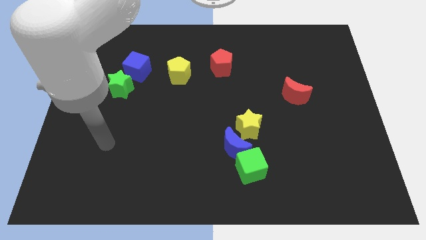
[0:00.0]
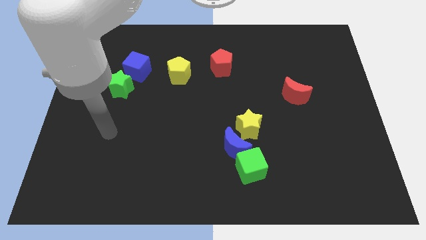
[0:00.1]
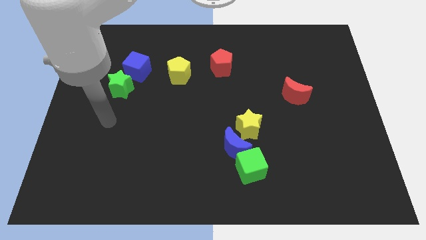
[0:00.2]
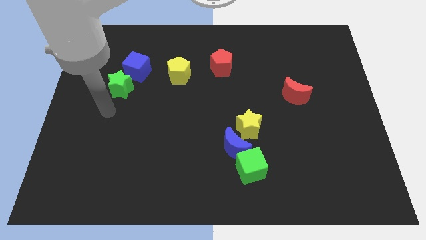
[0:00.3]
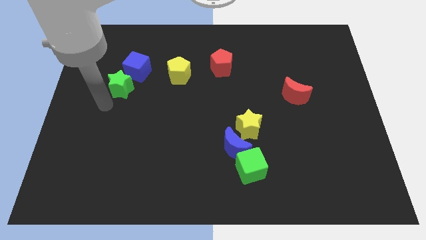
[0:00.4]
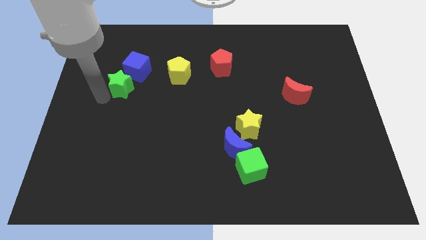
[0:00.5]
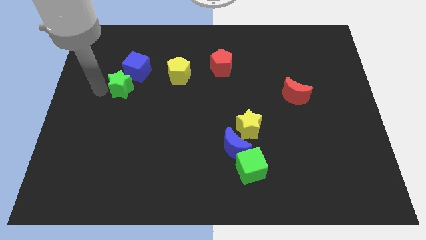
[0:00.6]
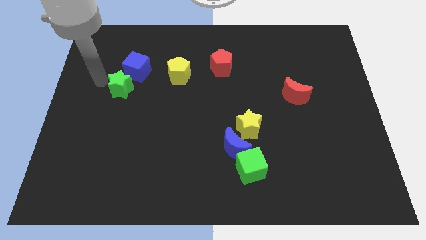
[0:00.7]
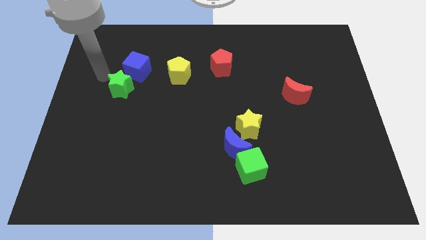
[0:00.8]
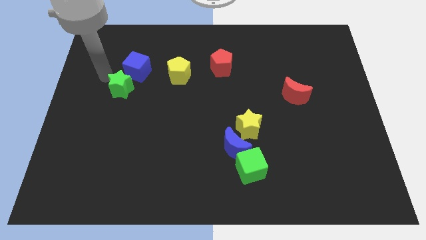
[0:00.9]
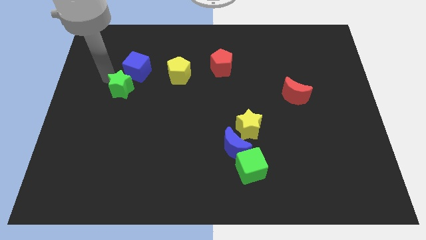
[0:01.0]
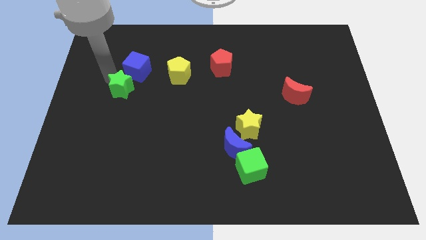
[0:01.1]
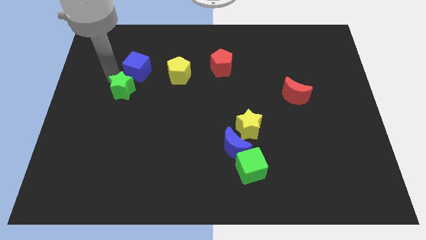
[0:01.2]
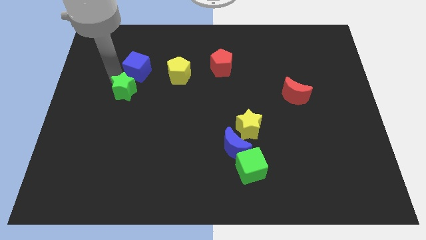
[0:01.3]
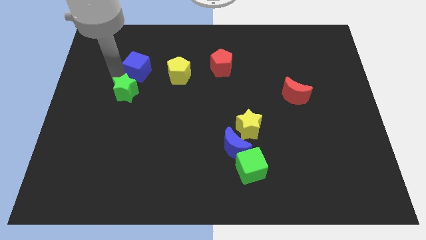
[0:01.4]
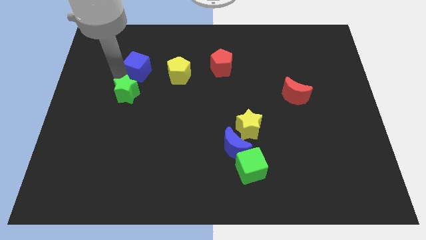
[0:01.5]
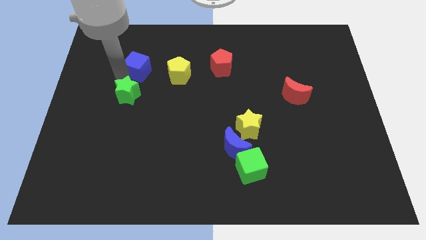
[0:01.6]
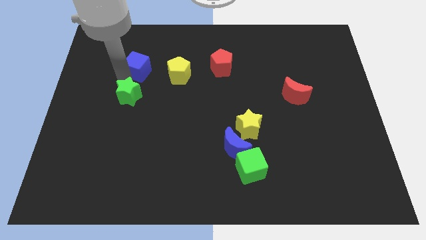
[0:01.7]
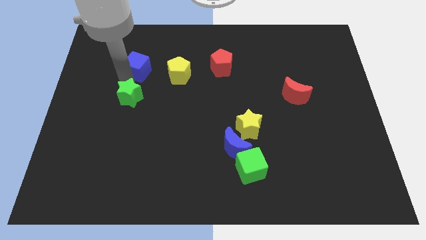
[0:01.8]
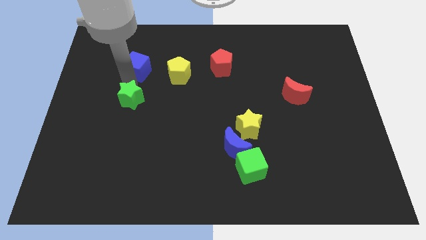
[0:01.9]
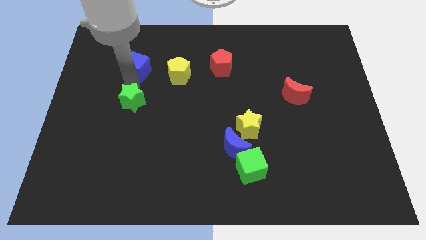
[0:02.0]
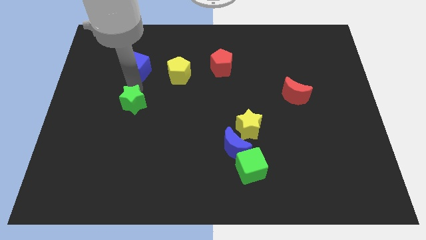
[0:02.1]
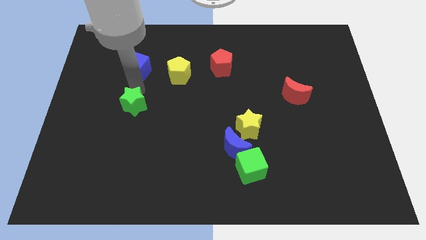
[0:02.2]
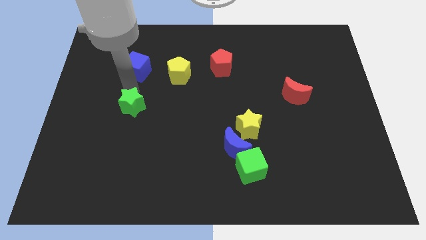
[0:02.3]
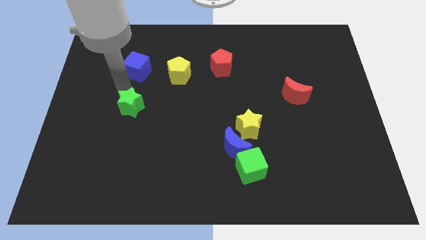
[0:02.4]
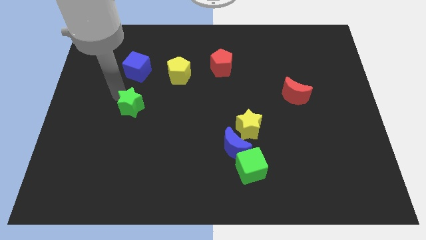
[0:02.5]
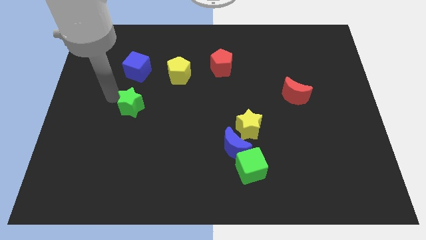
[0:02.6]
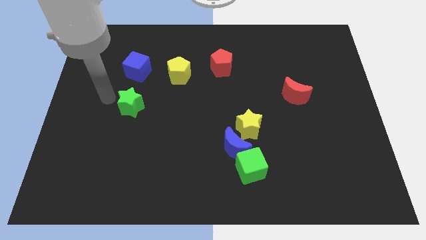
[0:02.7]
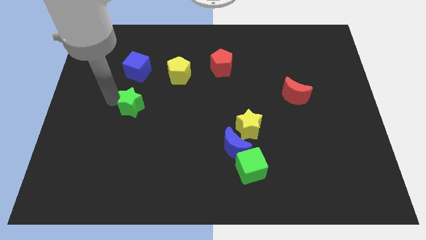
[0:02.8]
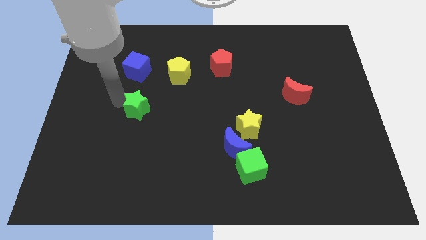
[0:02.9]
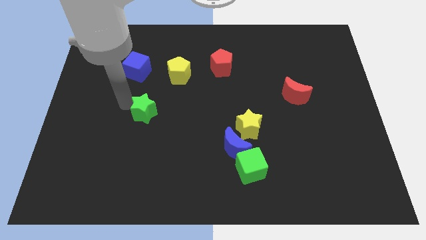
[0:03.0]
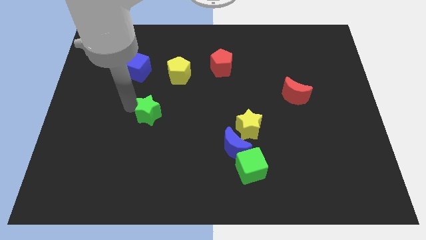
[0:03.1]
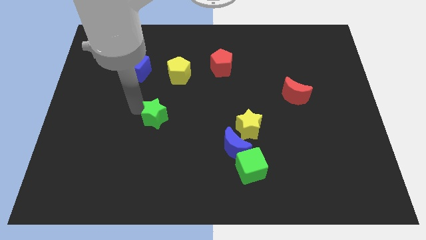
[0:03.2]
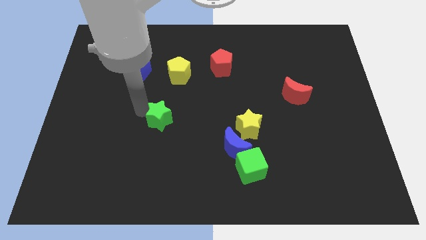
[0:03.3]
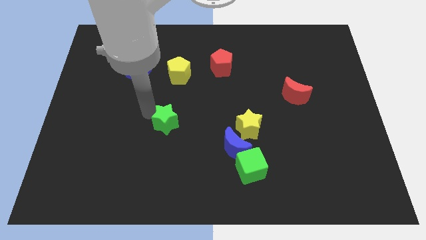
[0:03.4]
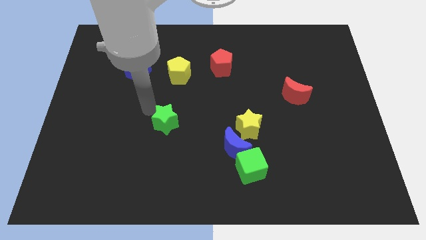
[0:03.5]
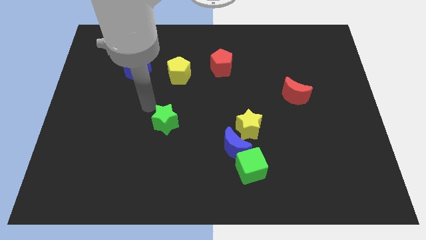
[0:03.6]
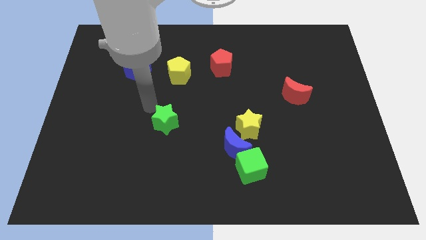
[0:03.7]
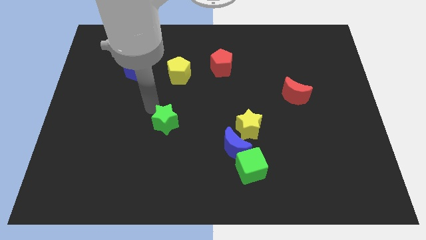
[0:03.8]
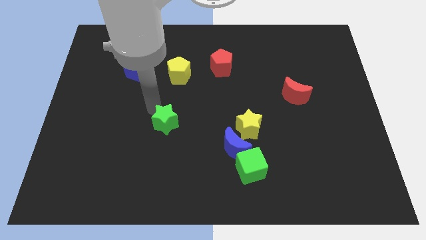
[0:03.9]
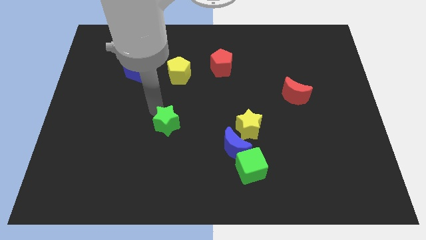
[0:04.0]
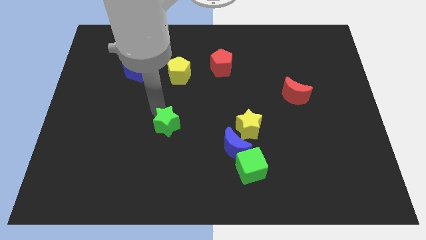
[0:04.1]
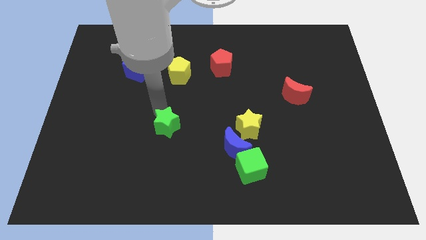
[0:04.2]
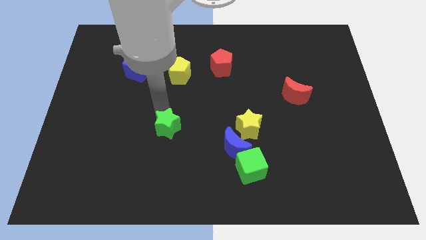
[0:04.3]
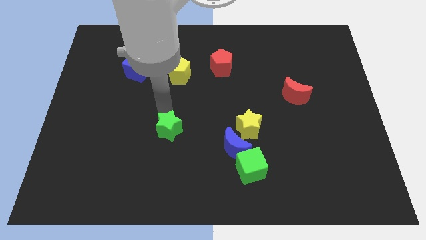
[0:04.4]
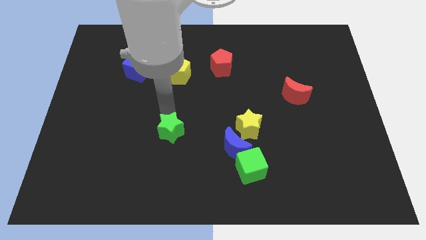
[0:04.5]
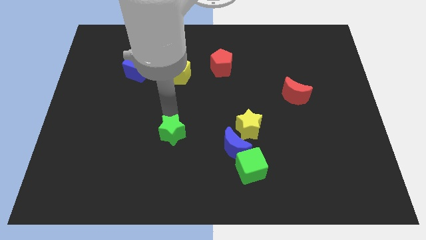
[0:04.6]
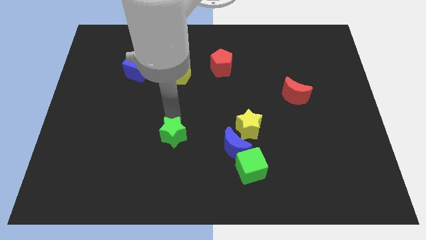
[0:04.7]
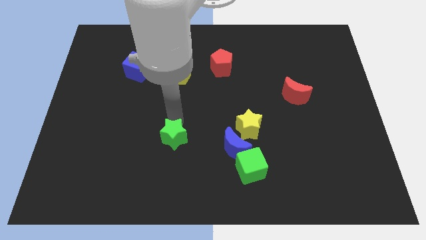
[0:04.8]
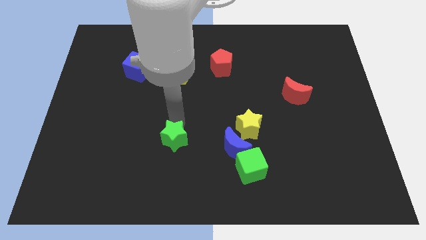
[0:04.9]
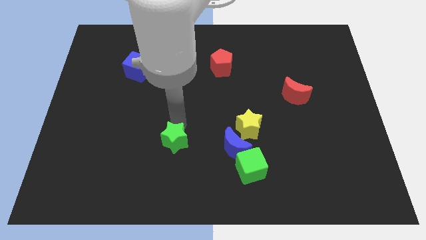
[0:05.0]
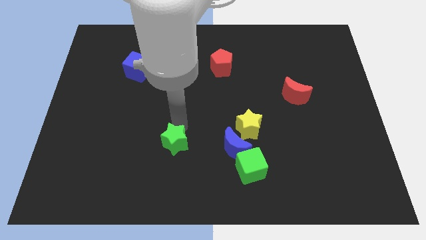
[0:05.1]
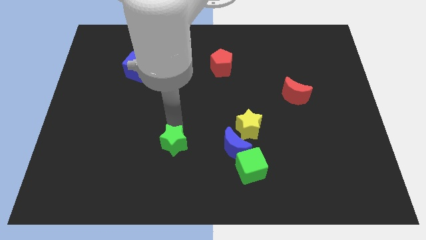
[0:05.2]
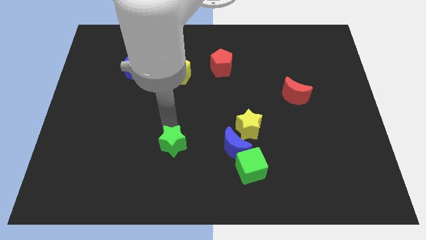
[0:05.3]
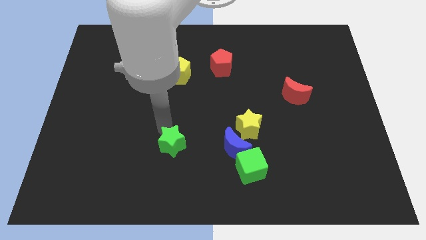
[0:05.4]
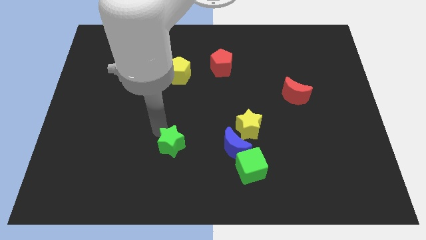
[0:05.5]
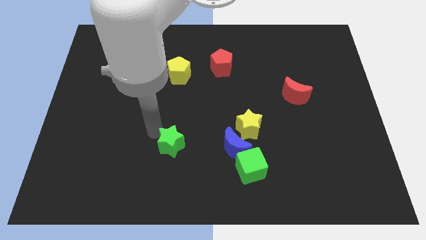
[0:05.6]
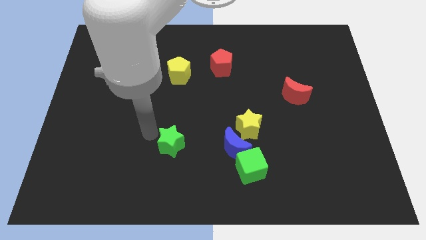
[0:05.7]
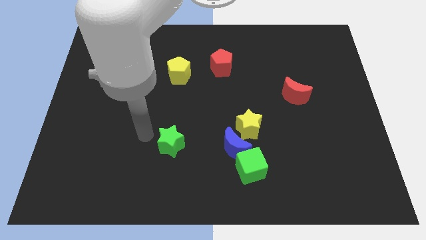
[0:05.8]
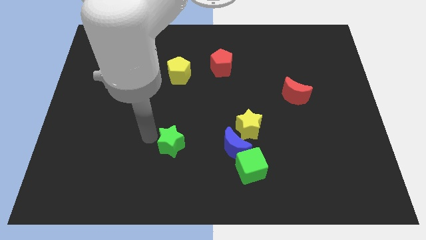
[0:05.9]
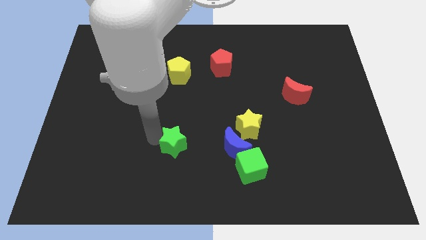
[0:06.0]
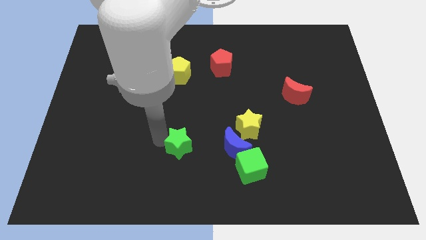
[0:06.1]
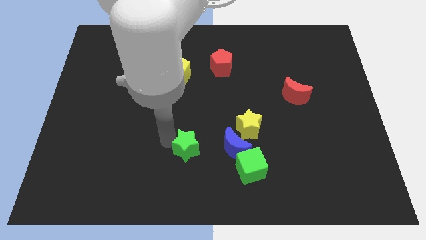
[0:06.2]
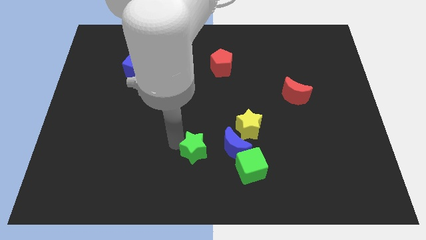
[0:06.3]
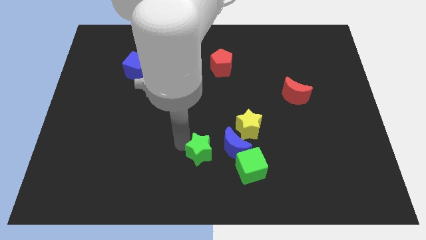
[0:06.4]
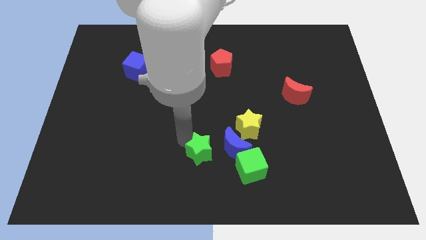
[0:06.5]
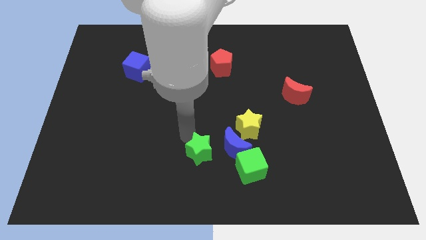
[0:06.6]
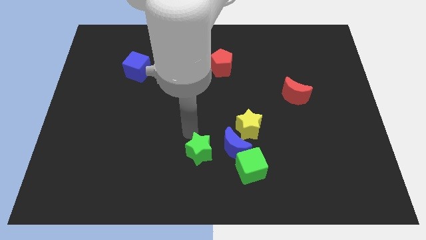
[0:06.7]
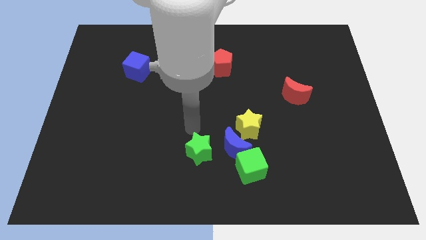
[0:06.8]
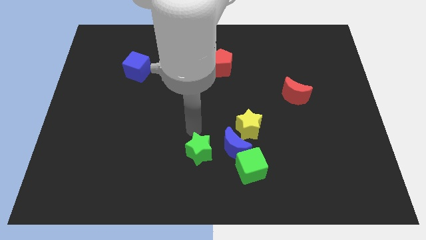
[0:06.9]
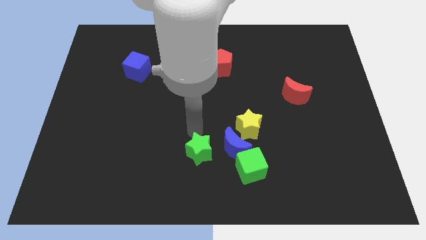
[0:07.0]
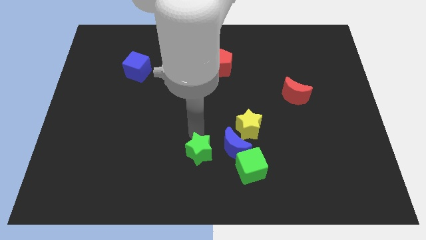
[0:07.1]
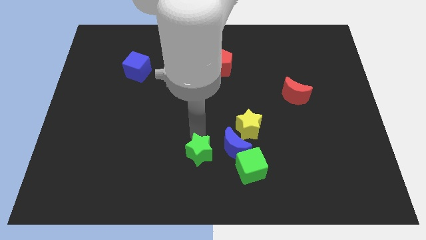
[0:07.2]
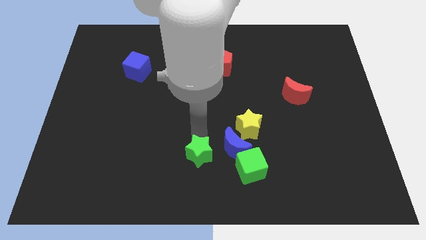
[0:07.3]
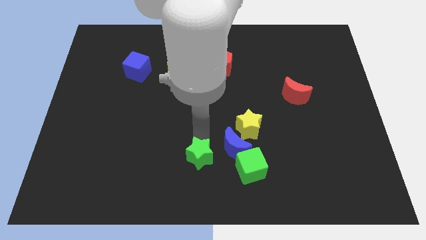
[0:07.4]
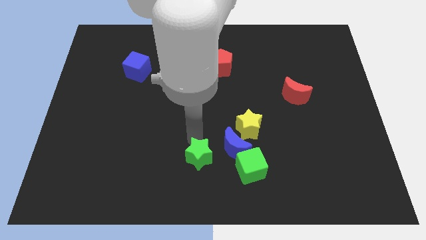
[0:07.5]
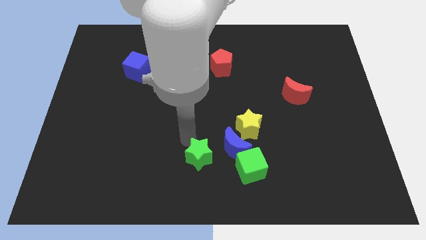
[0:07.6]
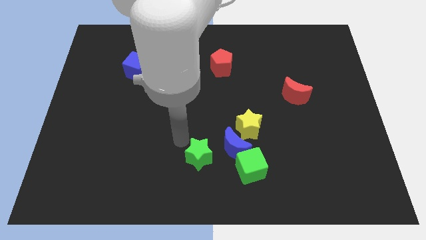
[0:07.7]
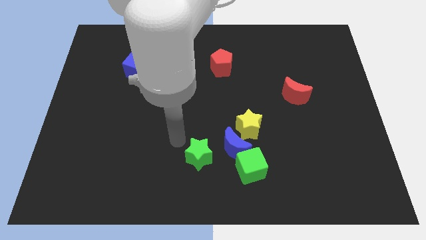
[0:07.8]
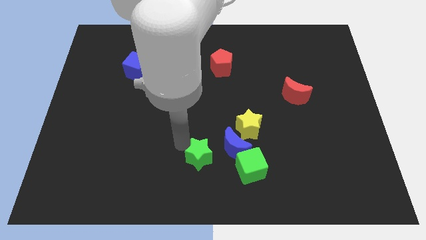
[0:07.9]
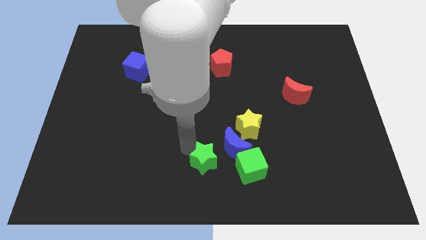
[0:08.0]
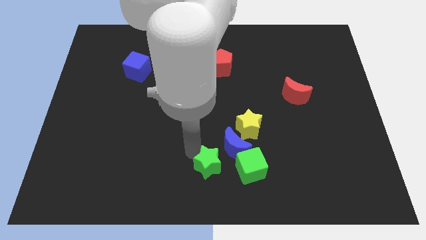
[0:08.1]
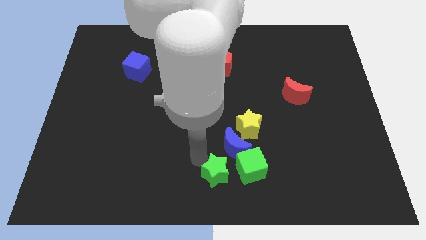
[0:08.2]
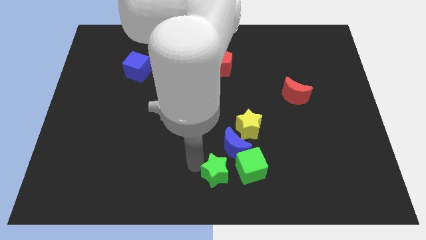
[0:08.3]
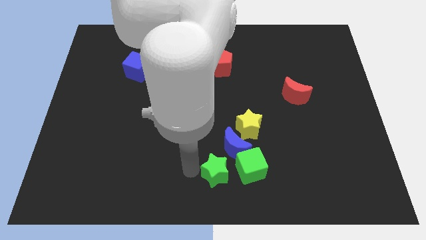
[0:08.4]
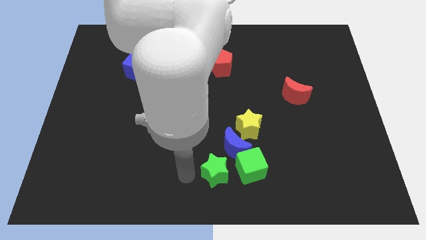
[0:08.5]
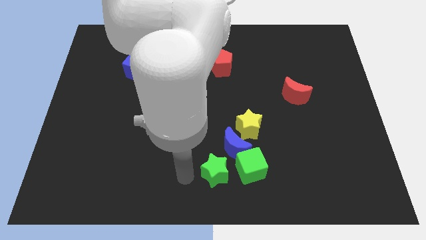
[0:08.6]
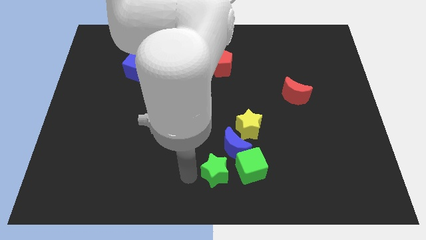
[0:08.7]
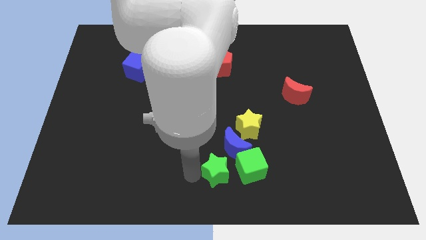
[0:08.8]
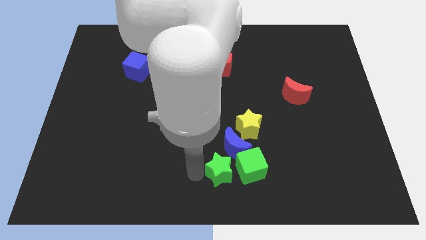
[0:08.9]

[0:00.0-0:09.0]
put the green star towards the green cube
